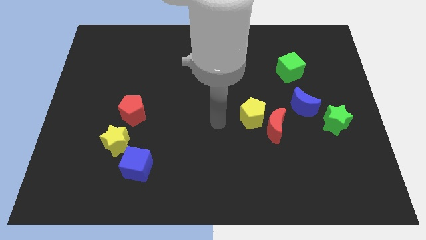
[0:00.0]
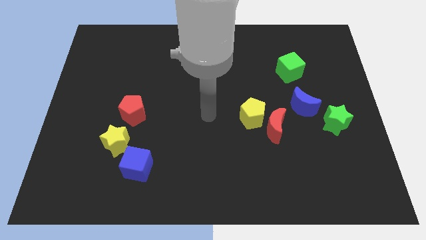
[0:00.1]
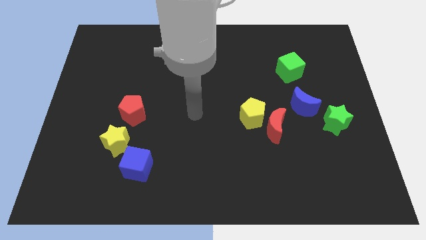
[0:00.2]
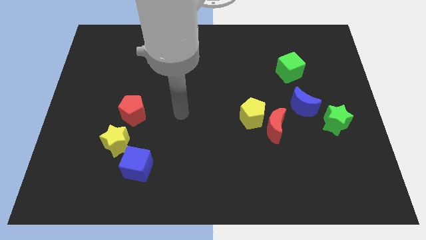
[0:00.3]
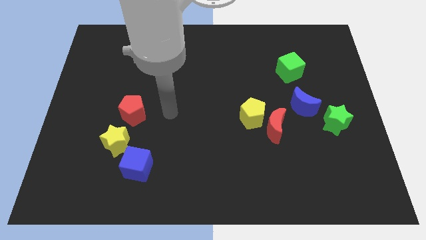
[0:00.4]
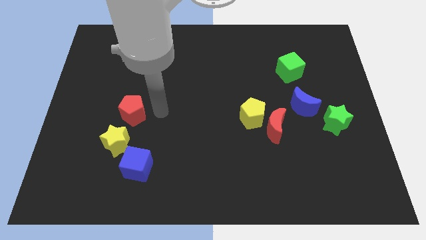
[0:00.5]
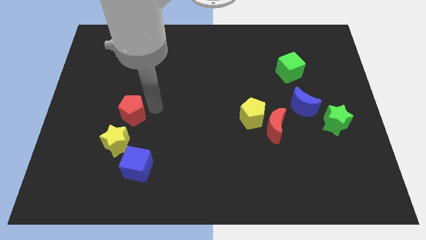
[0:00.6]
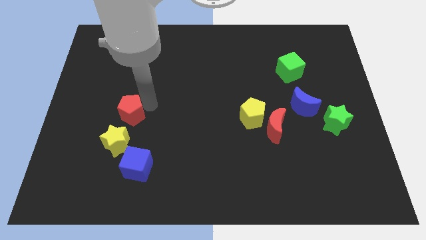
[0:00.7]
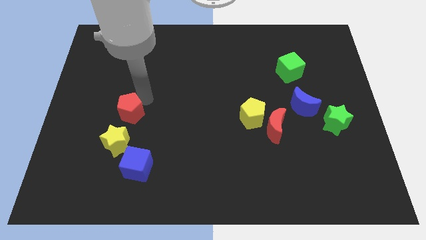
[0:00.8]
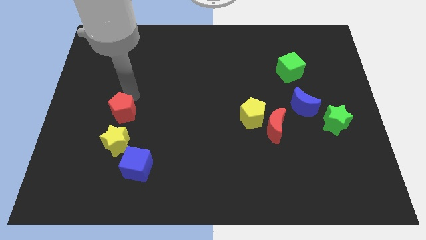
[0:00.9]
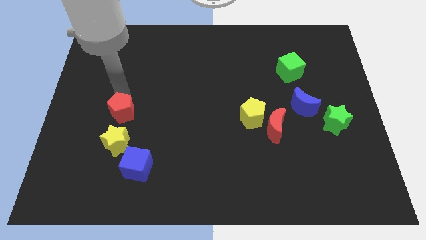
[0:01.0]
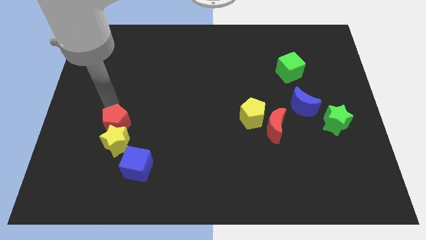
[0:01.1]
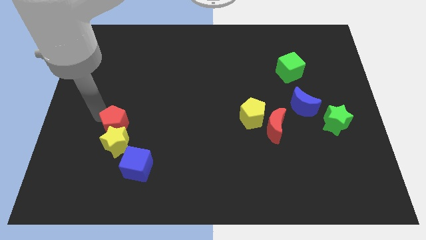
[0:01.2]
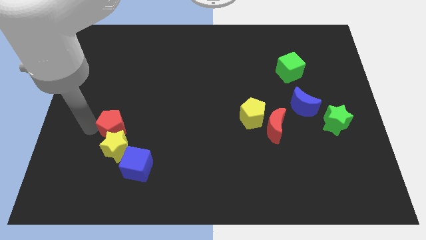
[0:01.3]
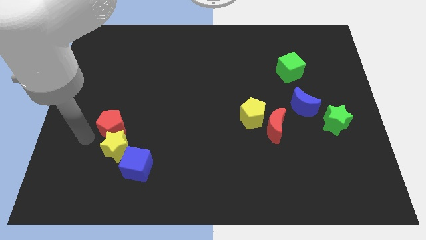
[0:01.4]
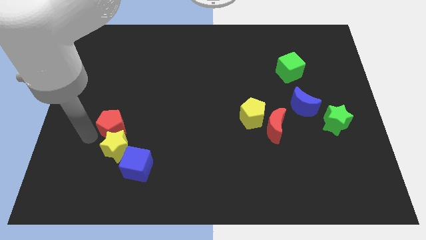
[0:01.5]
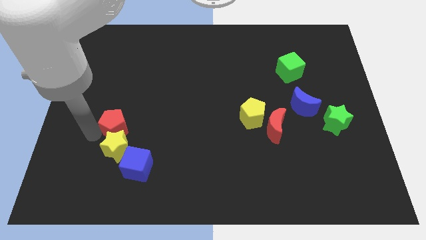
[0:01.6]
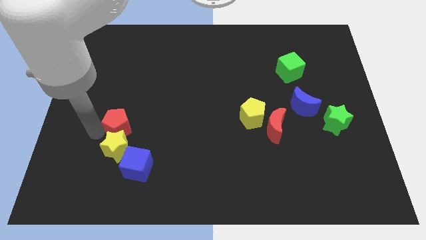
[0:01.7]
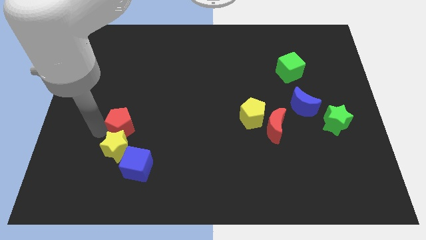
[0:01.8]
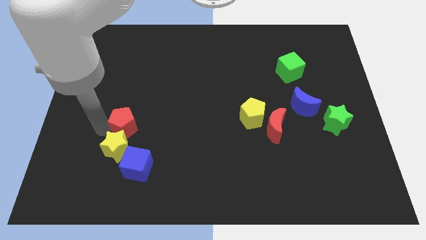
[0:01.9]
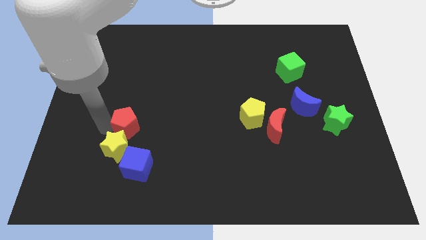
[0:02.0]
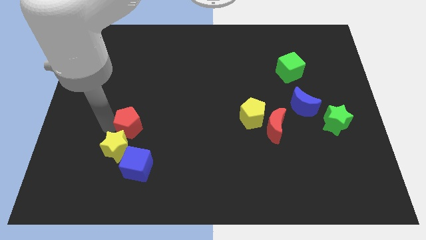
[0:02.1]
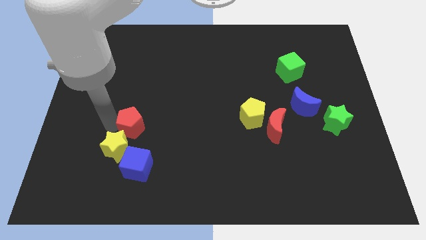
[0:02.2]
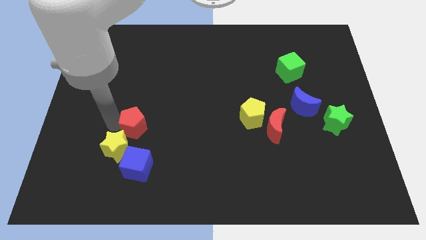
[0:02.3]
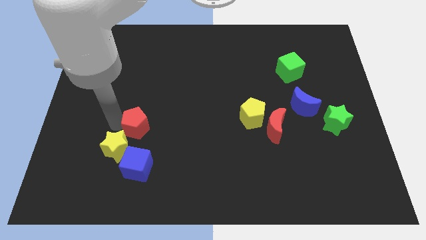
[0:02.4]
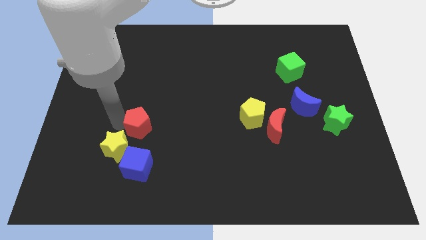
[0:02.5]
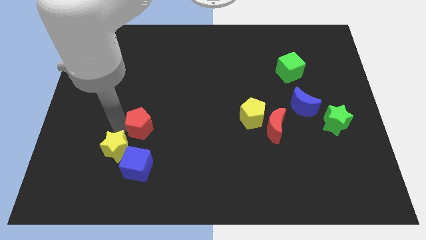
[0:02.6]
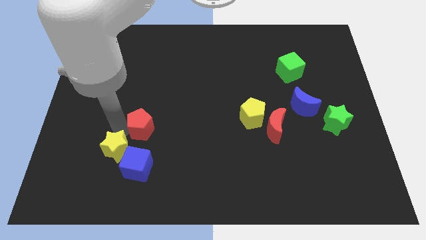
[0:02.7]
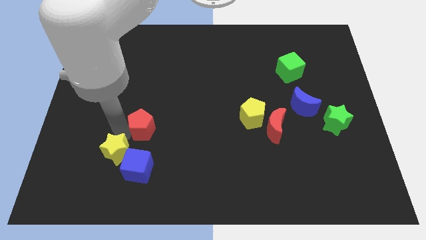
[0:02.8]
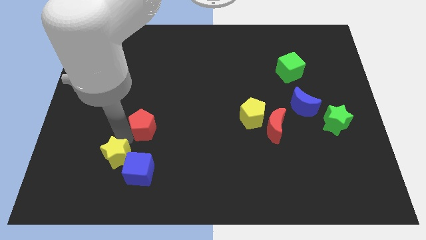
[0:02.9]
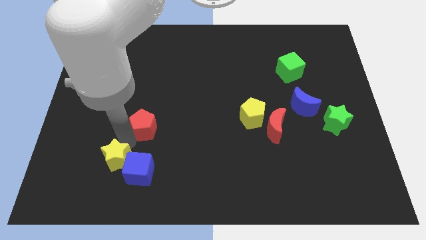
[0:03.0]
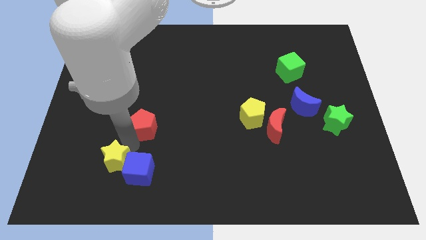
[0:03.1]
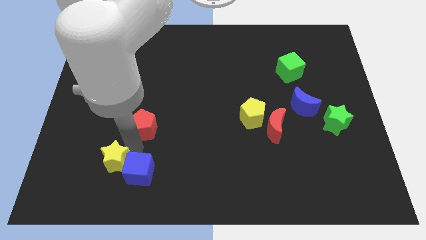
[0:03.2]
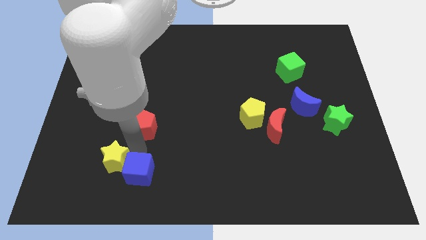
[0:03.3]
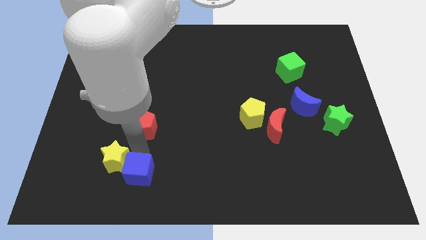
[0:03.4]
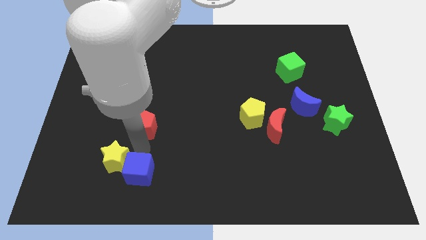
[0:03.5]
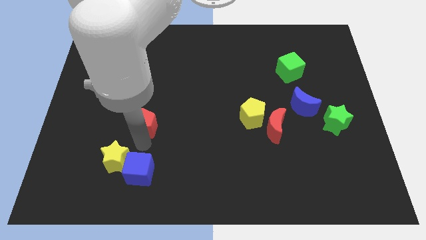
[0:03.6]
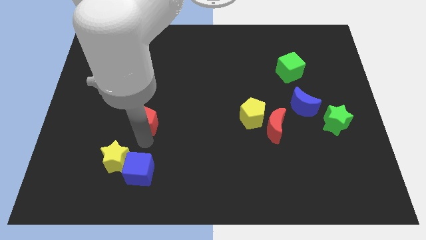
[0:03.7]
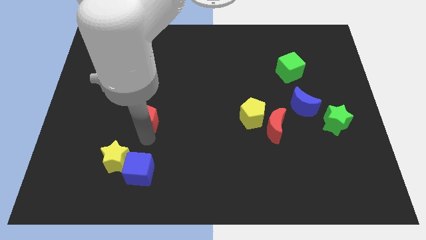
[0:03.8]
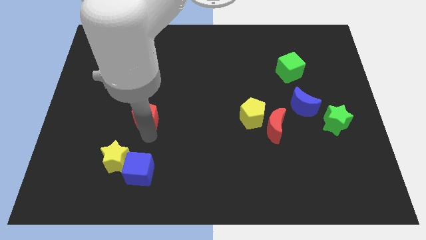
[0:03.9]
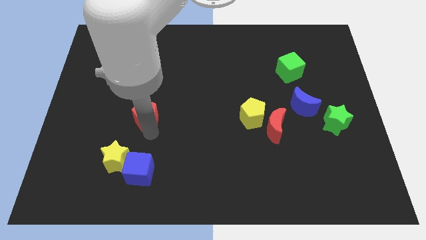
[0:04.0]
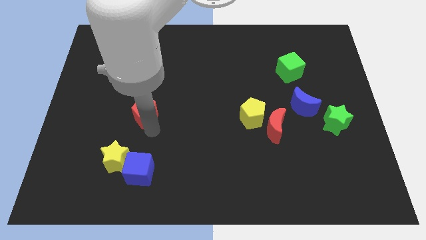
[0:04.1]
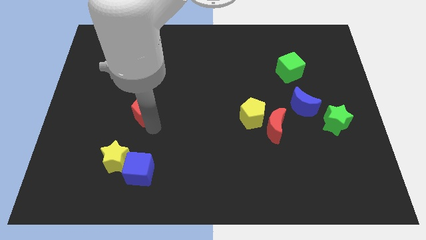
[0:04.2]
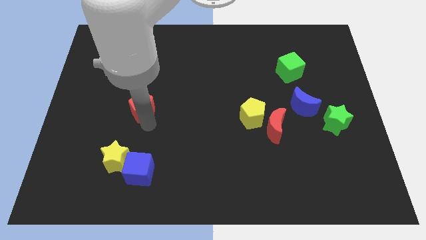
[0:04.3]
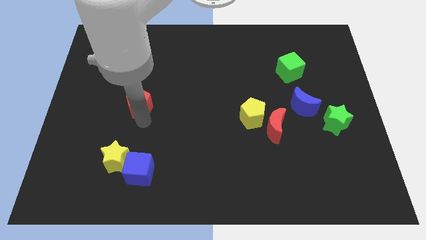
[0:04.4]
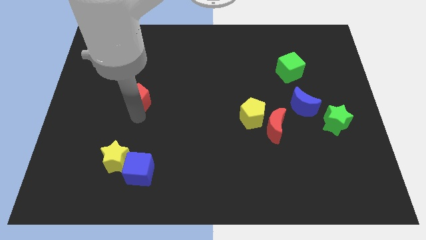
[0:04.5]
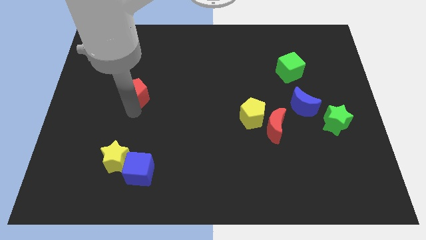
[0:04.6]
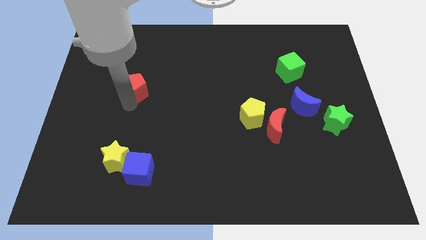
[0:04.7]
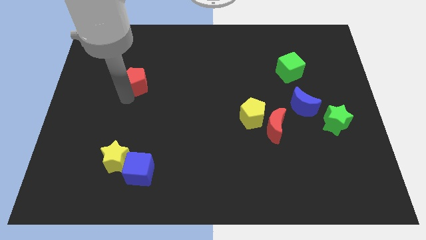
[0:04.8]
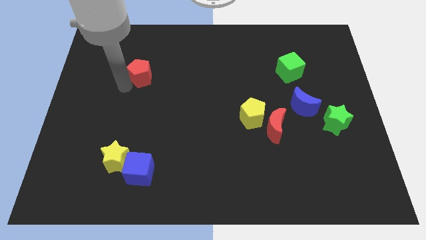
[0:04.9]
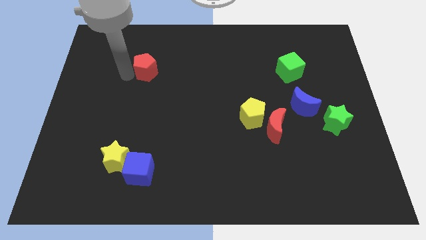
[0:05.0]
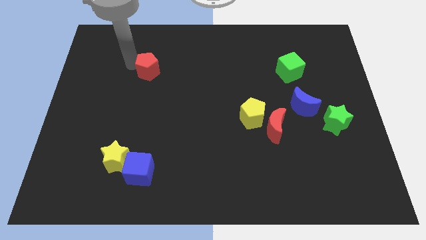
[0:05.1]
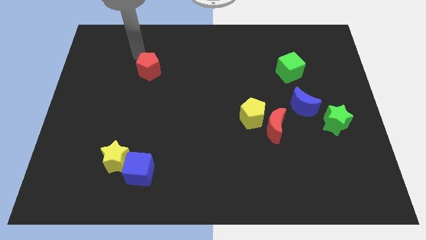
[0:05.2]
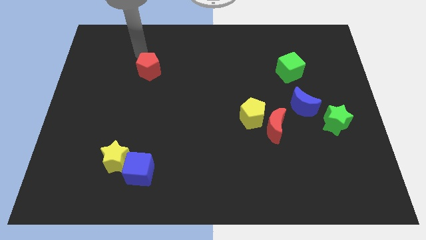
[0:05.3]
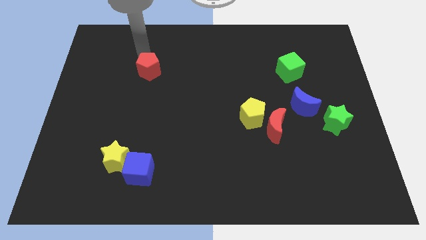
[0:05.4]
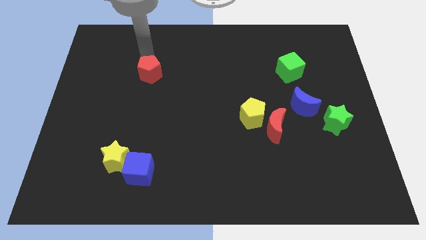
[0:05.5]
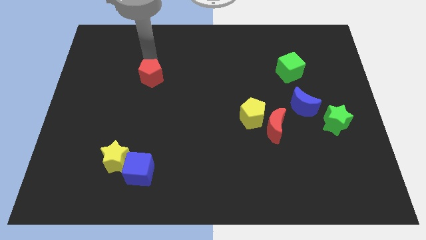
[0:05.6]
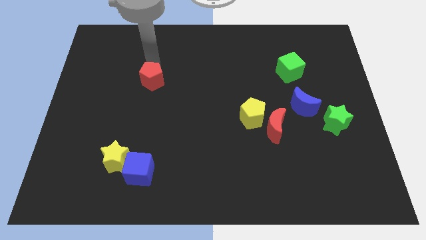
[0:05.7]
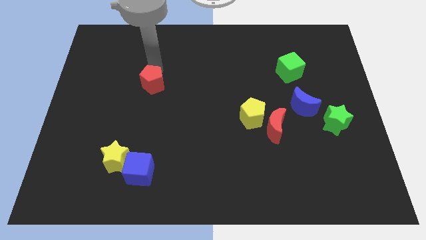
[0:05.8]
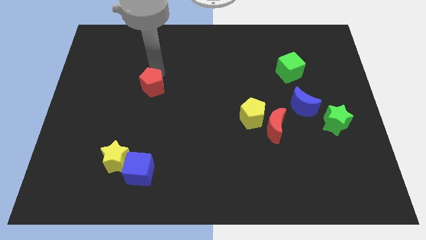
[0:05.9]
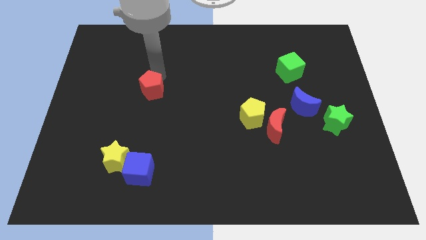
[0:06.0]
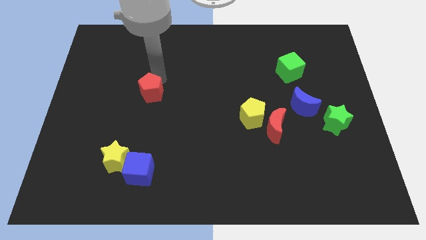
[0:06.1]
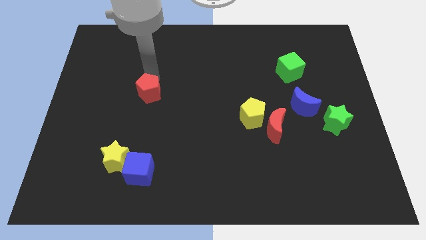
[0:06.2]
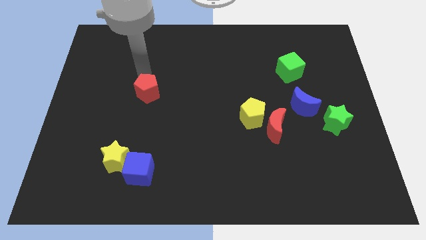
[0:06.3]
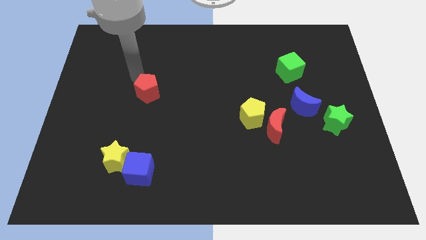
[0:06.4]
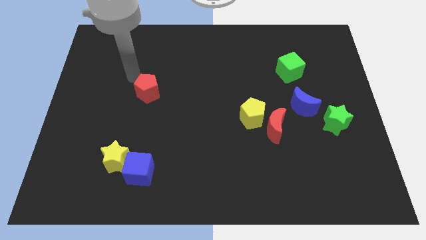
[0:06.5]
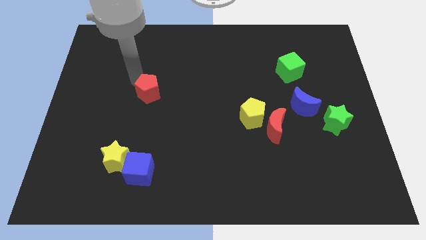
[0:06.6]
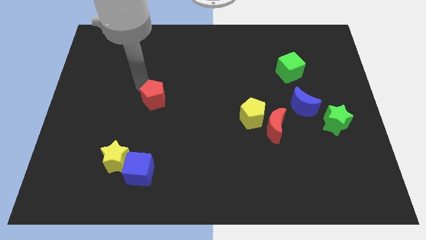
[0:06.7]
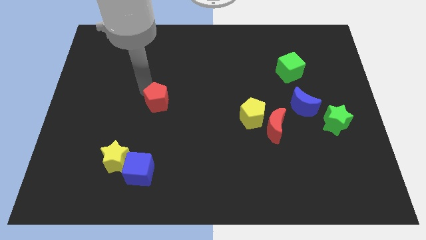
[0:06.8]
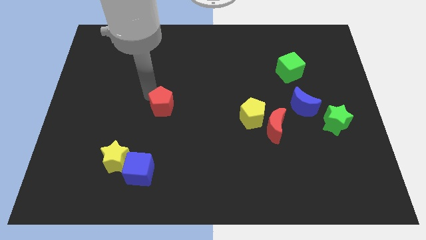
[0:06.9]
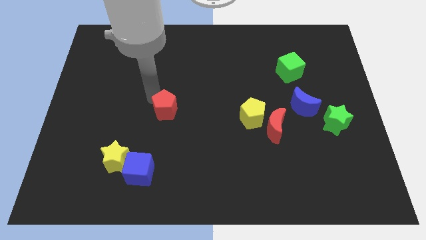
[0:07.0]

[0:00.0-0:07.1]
slightly move the red pentagon right

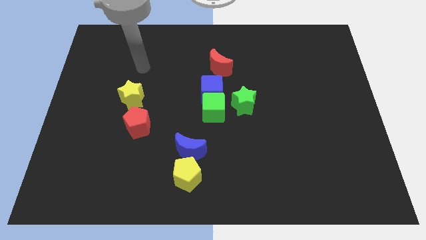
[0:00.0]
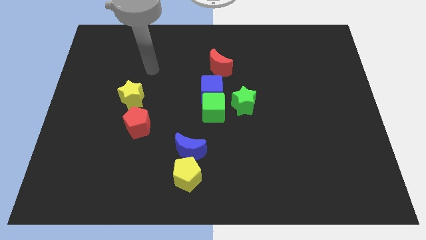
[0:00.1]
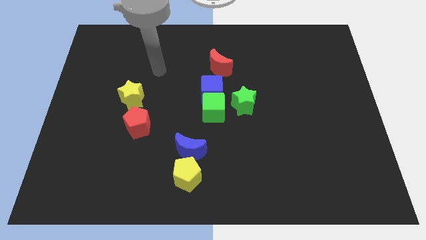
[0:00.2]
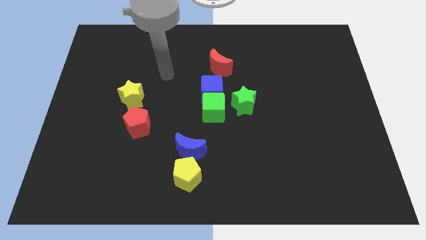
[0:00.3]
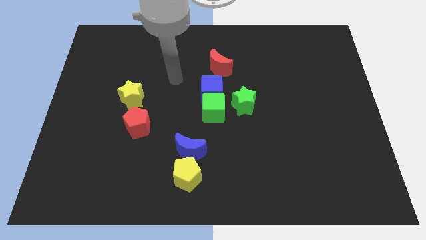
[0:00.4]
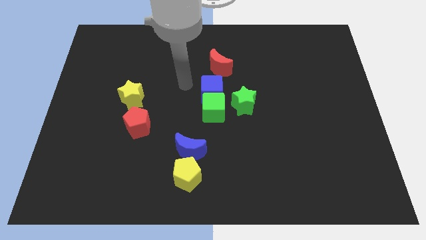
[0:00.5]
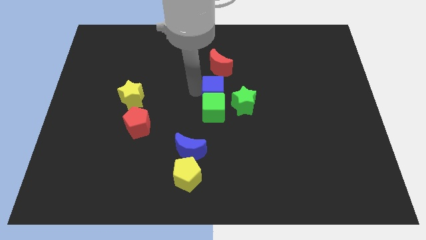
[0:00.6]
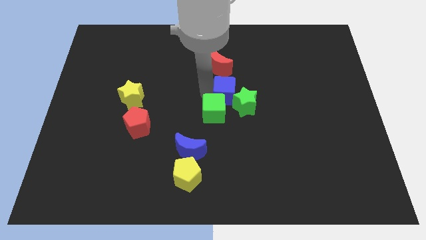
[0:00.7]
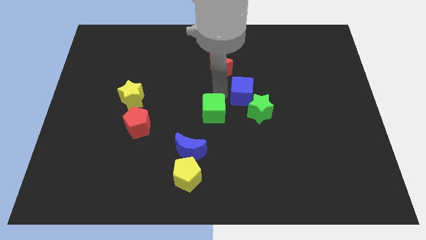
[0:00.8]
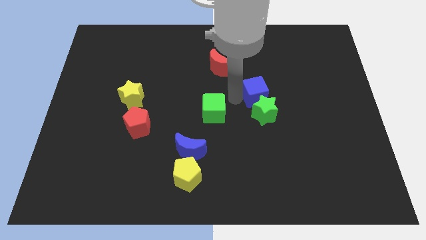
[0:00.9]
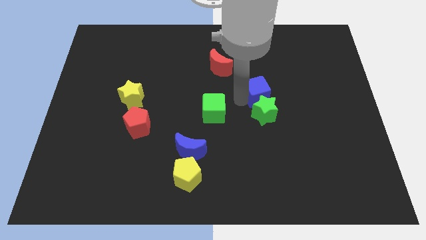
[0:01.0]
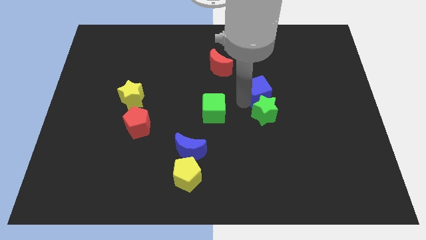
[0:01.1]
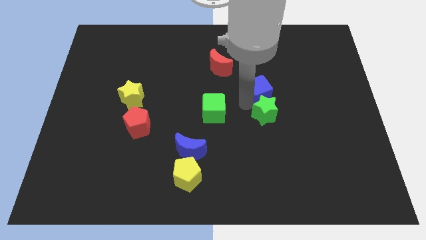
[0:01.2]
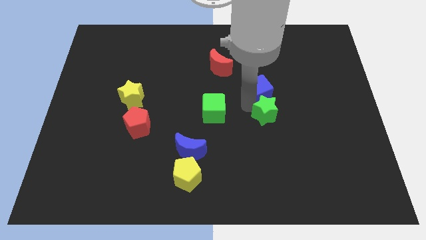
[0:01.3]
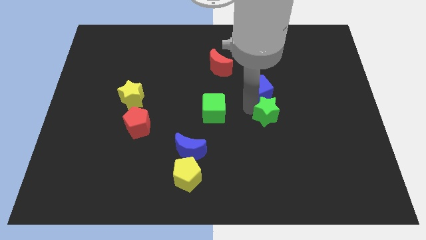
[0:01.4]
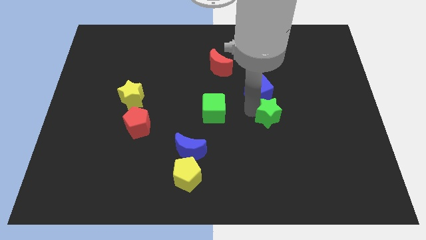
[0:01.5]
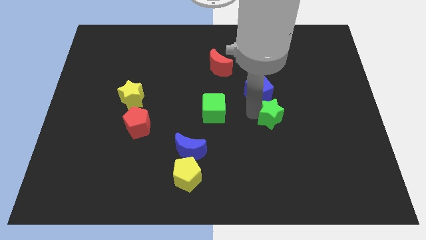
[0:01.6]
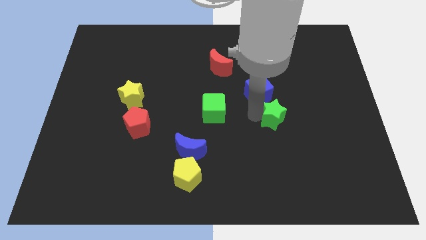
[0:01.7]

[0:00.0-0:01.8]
push the green star a little downwards and then to the right
